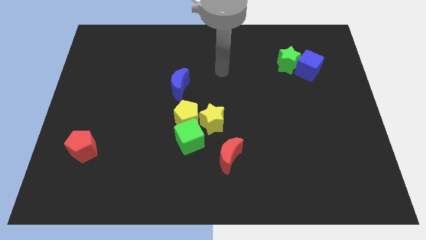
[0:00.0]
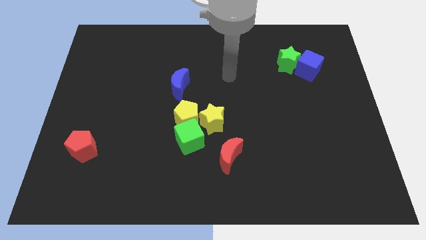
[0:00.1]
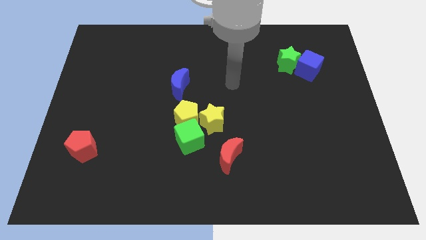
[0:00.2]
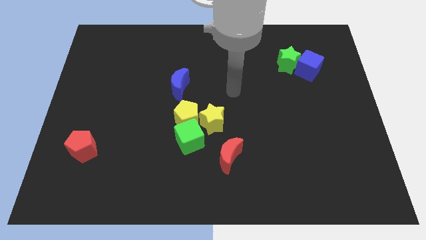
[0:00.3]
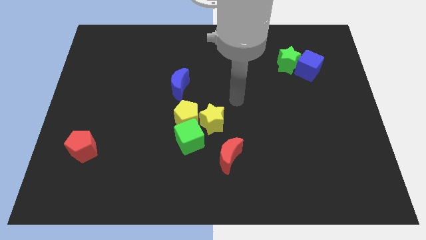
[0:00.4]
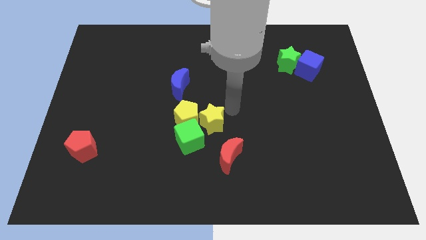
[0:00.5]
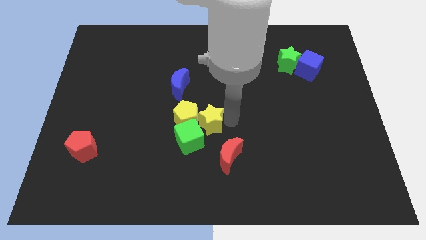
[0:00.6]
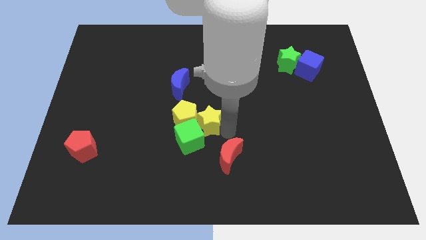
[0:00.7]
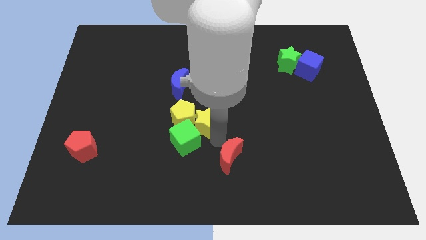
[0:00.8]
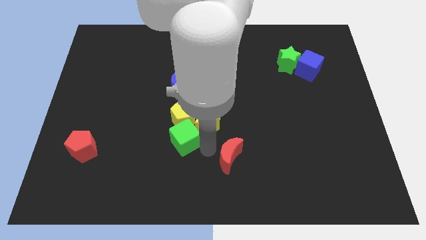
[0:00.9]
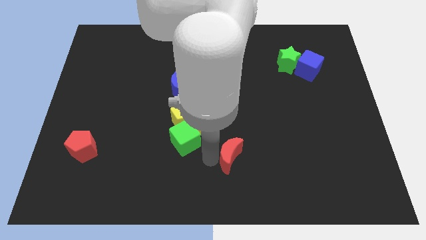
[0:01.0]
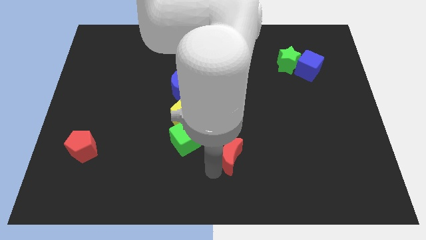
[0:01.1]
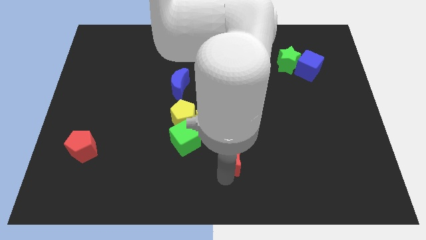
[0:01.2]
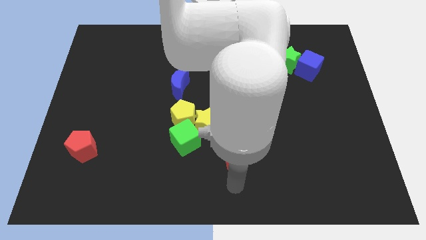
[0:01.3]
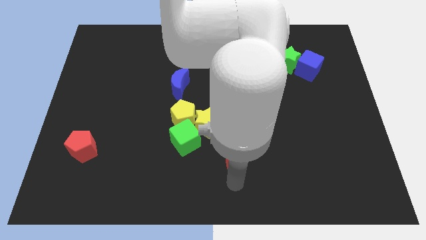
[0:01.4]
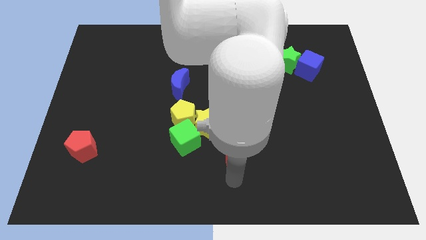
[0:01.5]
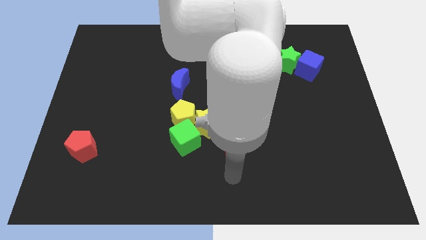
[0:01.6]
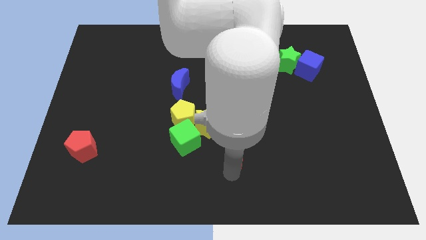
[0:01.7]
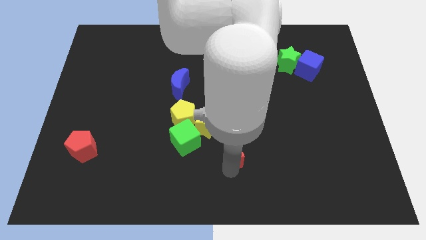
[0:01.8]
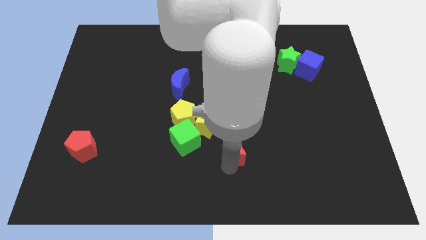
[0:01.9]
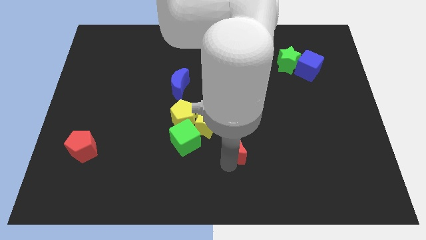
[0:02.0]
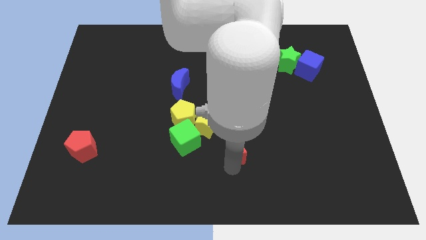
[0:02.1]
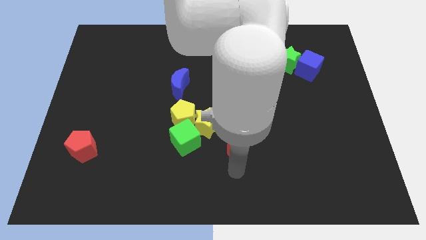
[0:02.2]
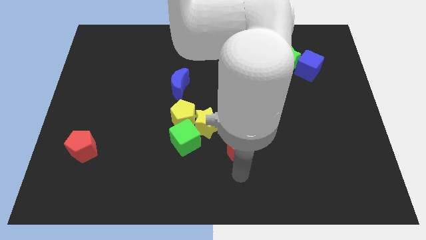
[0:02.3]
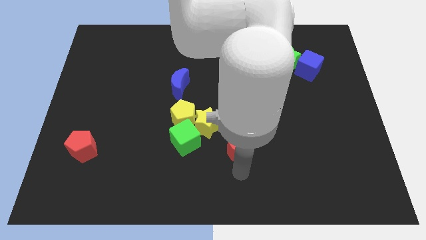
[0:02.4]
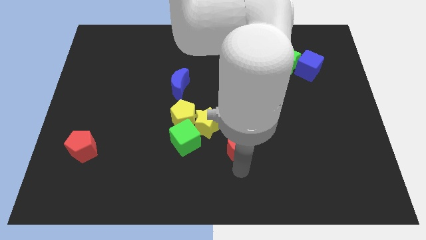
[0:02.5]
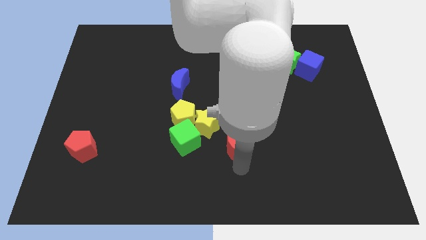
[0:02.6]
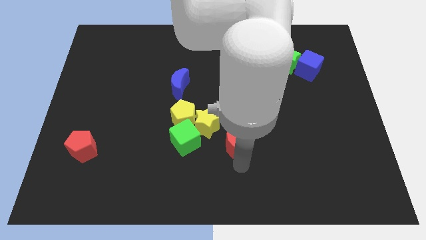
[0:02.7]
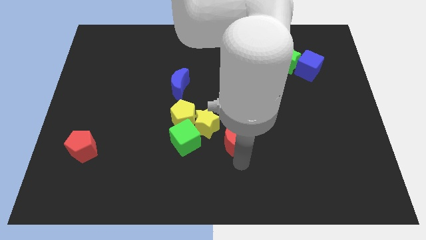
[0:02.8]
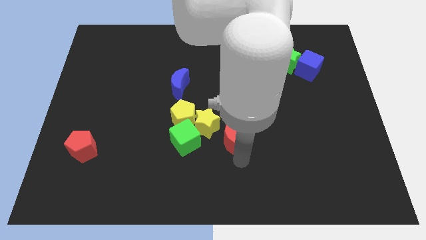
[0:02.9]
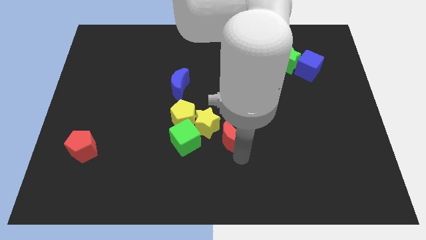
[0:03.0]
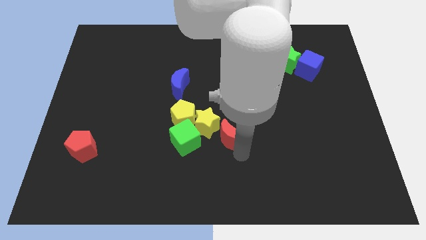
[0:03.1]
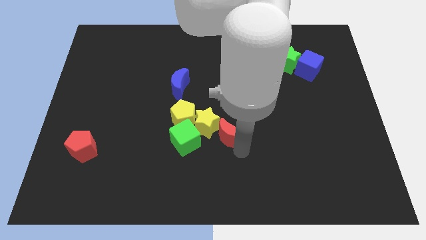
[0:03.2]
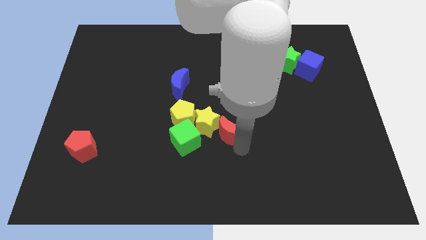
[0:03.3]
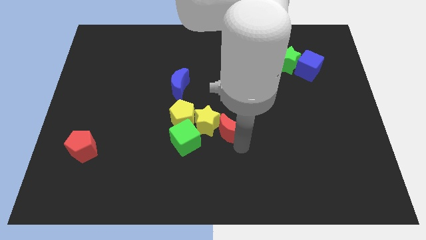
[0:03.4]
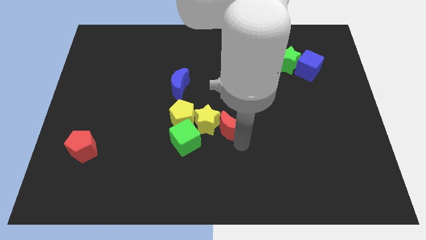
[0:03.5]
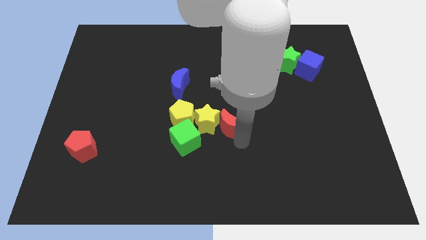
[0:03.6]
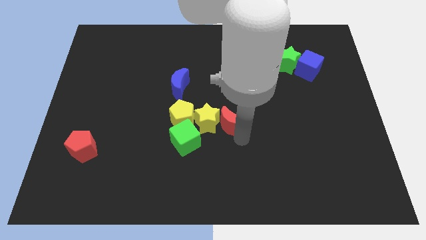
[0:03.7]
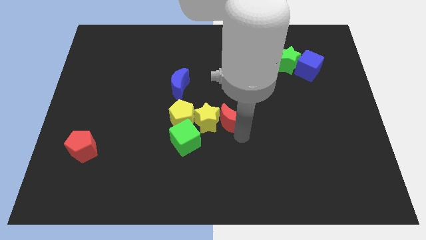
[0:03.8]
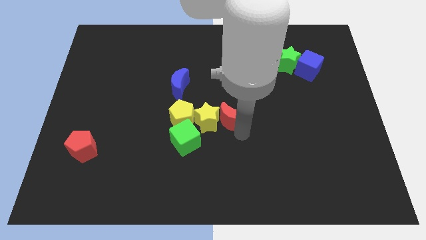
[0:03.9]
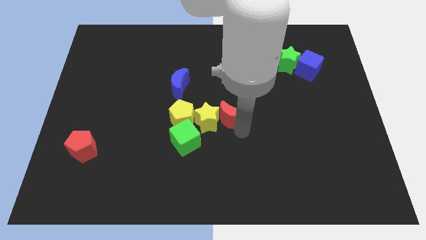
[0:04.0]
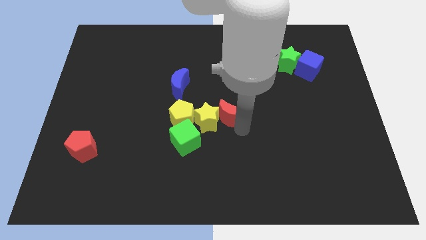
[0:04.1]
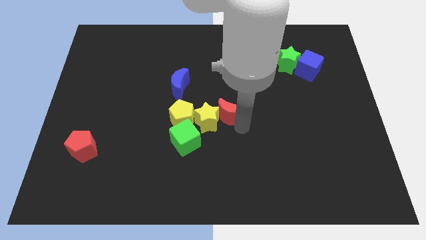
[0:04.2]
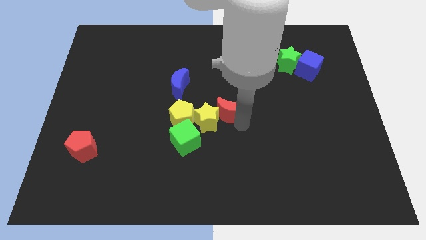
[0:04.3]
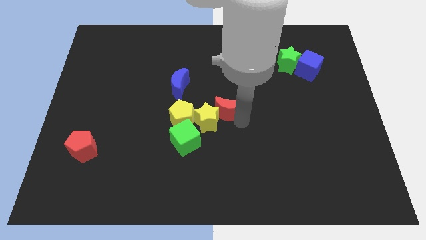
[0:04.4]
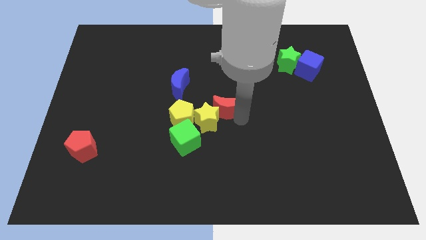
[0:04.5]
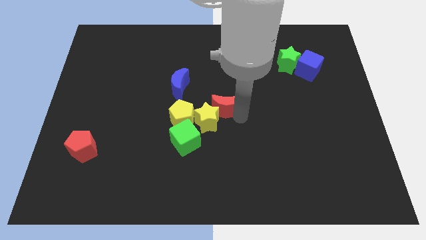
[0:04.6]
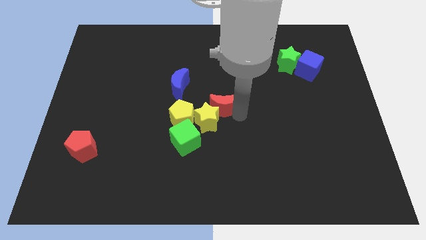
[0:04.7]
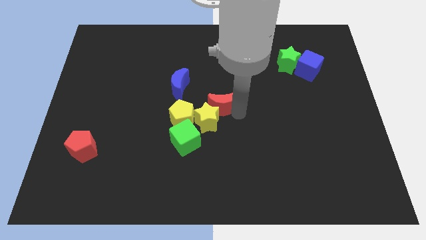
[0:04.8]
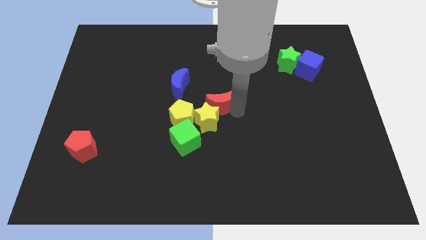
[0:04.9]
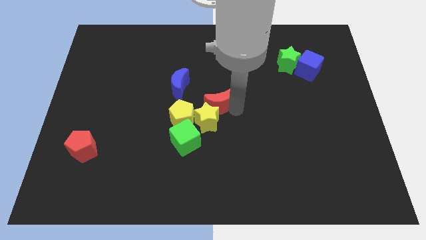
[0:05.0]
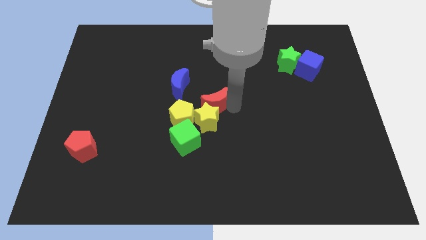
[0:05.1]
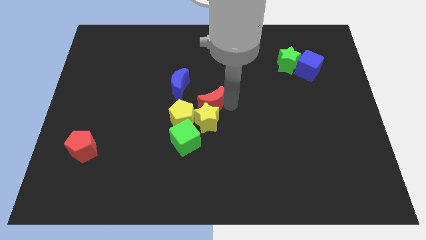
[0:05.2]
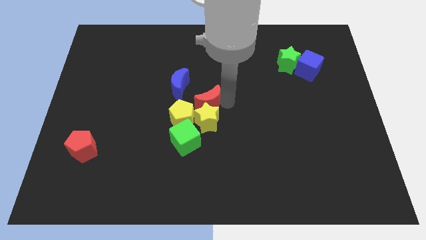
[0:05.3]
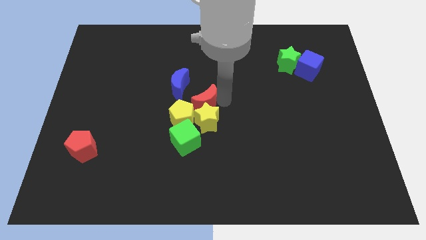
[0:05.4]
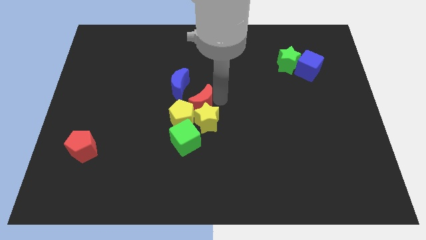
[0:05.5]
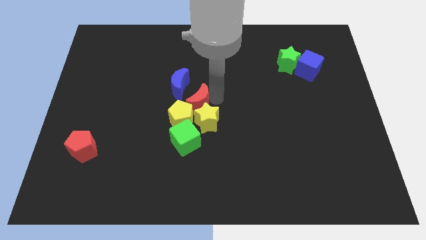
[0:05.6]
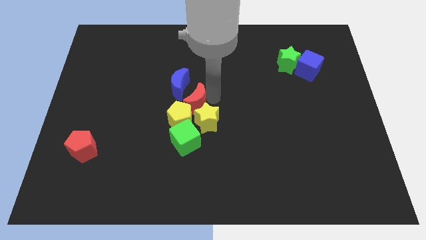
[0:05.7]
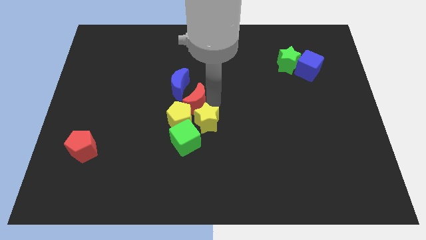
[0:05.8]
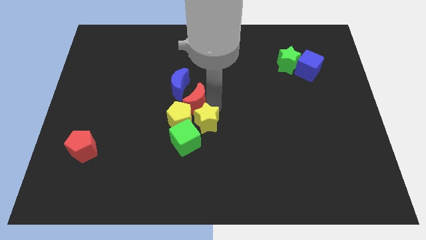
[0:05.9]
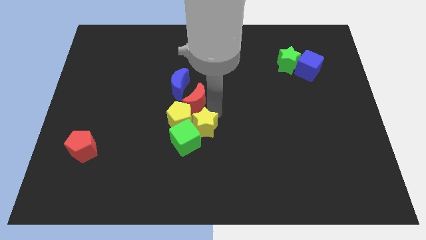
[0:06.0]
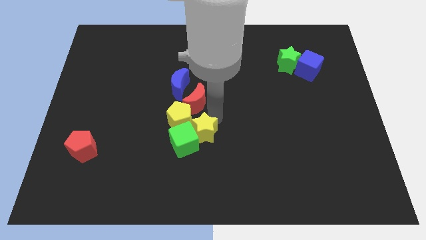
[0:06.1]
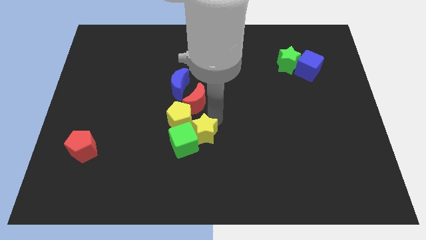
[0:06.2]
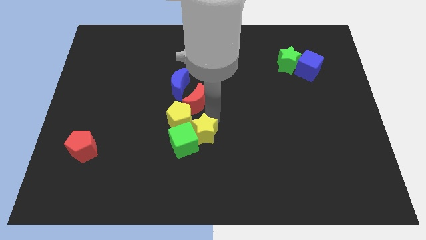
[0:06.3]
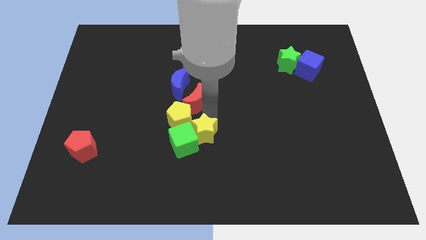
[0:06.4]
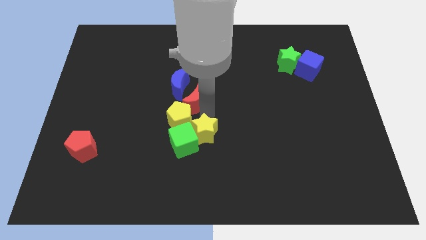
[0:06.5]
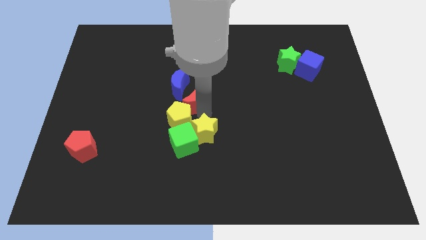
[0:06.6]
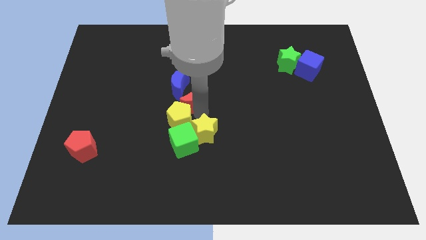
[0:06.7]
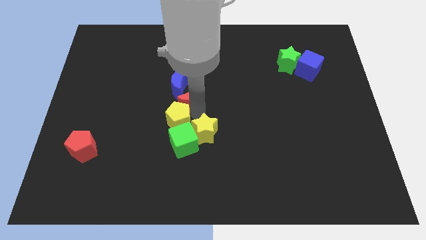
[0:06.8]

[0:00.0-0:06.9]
push the red moon next to the blue moon
